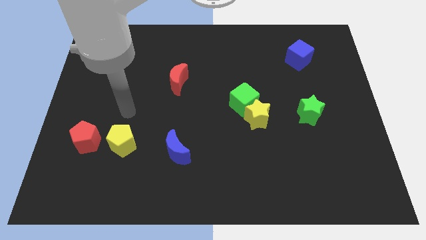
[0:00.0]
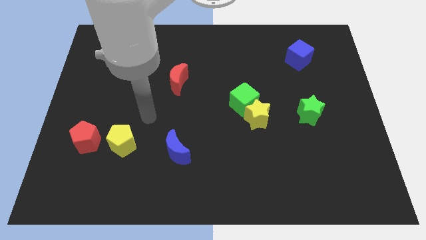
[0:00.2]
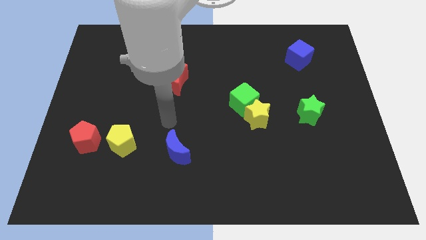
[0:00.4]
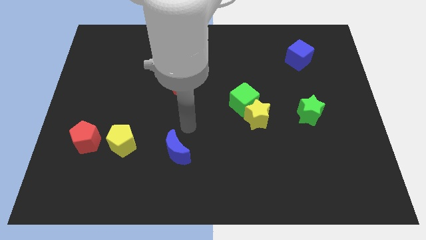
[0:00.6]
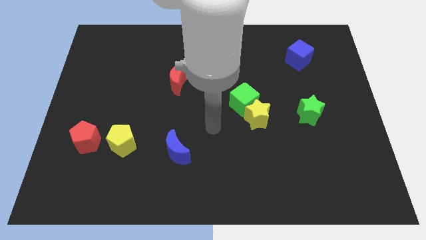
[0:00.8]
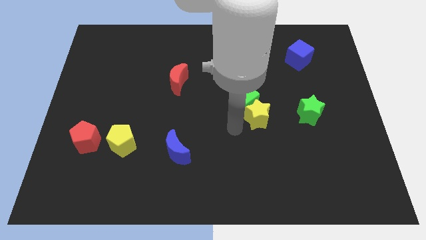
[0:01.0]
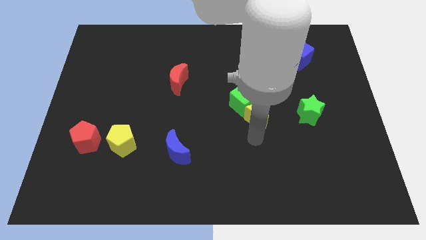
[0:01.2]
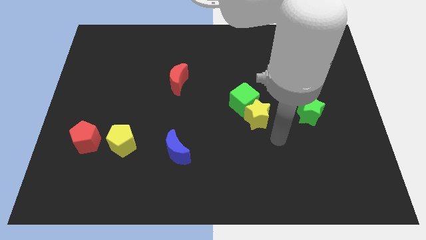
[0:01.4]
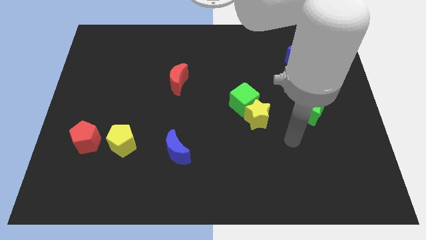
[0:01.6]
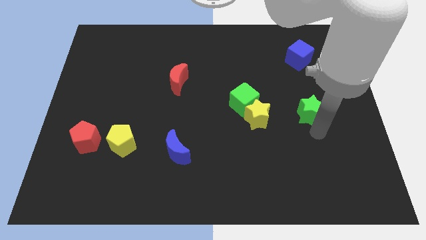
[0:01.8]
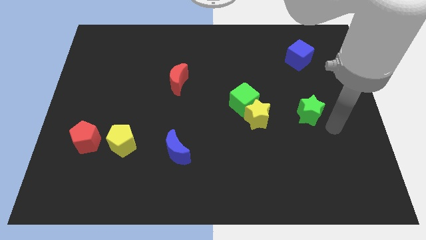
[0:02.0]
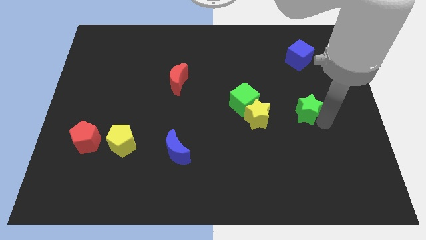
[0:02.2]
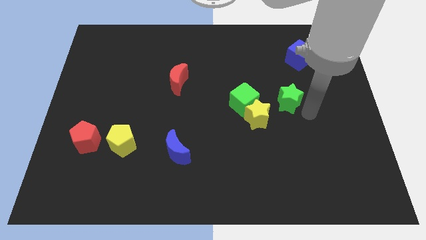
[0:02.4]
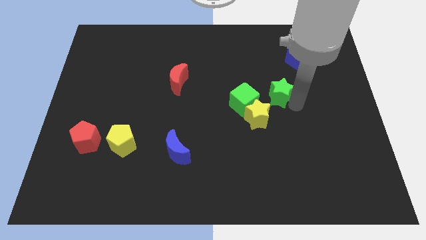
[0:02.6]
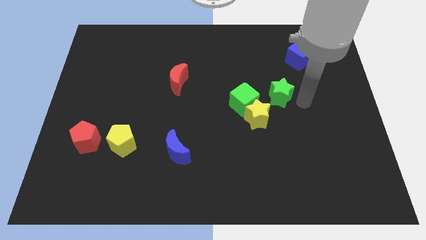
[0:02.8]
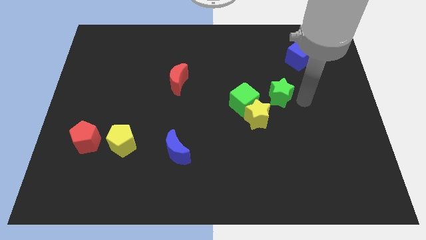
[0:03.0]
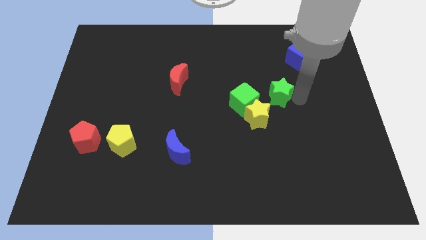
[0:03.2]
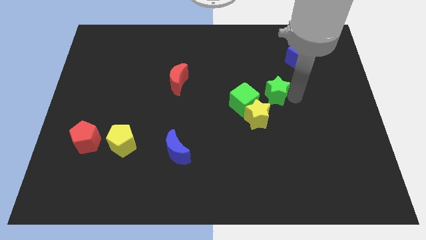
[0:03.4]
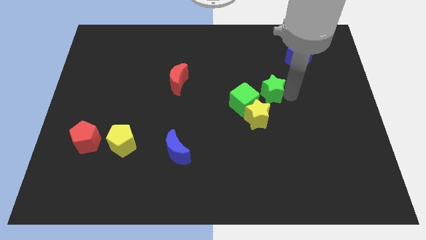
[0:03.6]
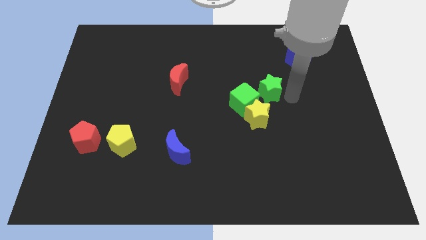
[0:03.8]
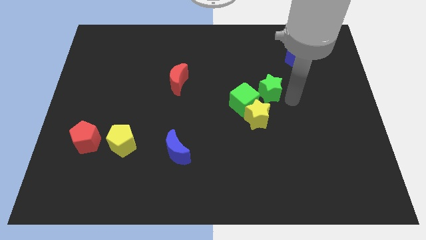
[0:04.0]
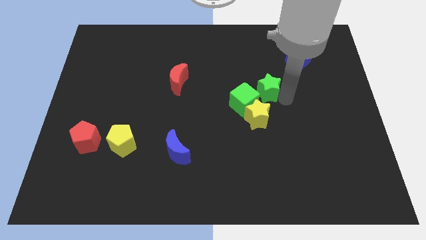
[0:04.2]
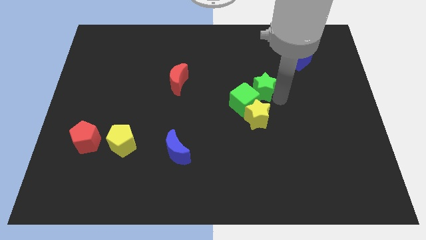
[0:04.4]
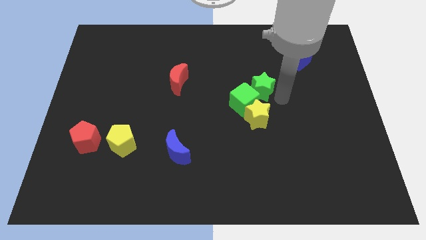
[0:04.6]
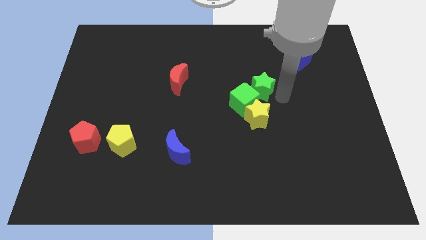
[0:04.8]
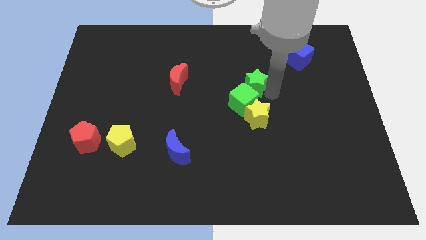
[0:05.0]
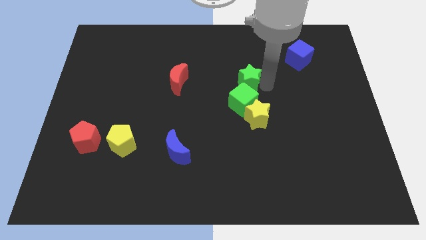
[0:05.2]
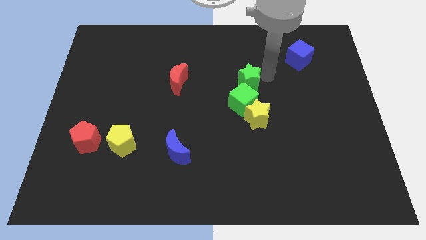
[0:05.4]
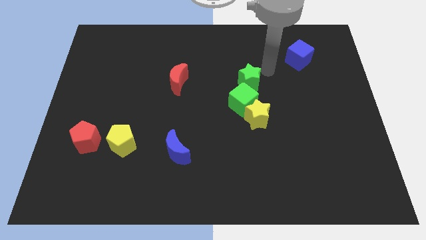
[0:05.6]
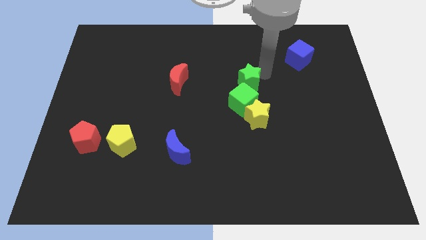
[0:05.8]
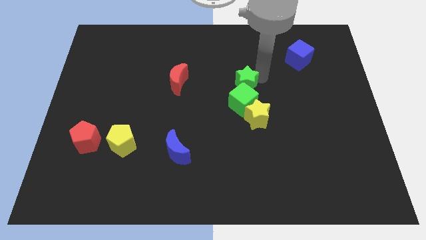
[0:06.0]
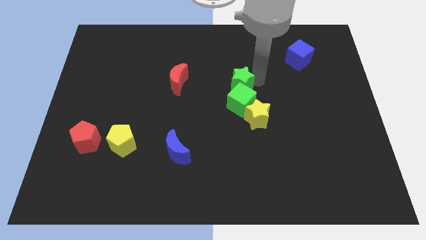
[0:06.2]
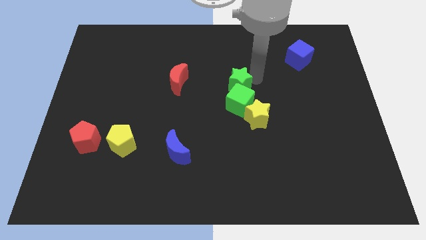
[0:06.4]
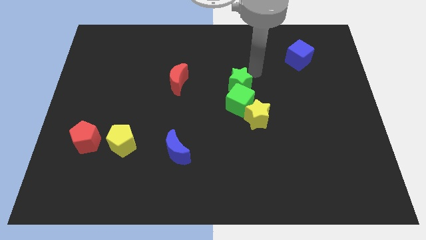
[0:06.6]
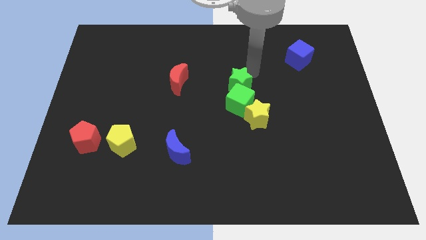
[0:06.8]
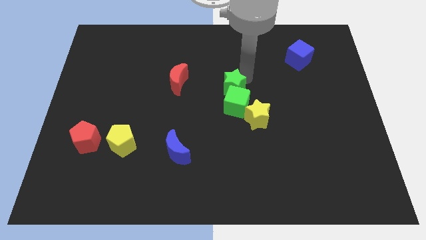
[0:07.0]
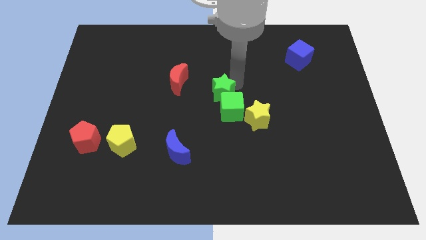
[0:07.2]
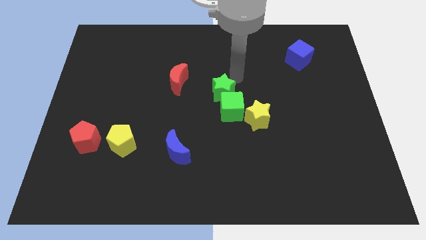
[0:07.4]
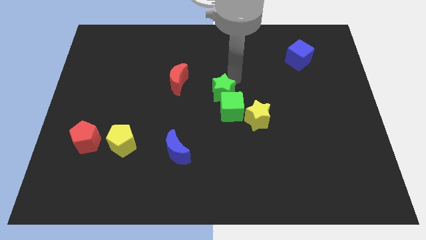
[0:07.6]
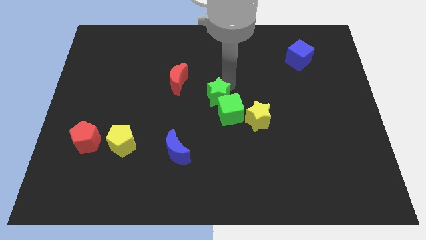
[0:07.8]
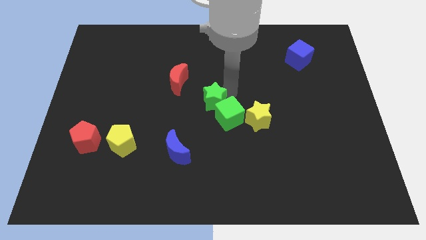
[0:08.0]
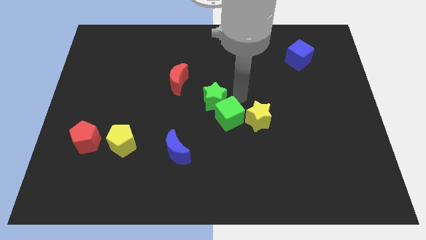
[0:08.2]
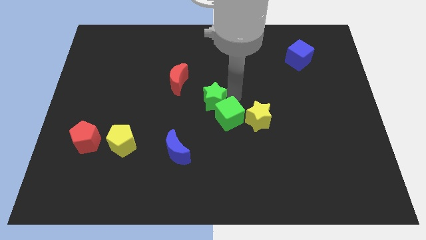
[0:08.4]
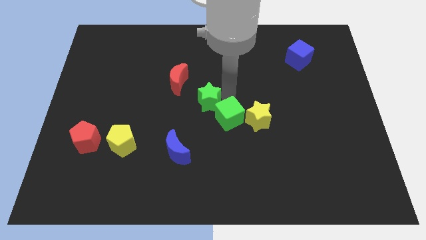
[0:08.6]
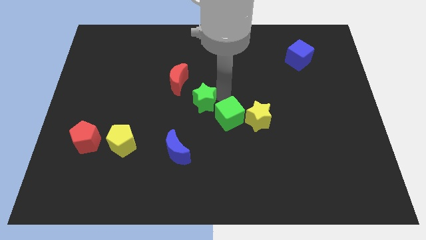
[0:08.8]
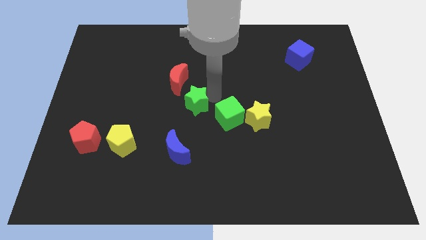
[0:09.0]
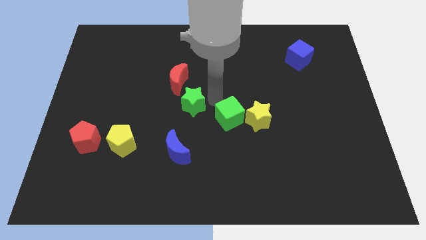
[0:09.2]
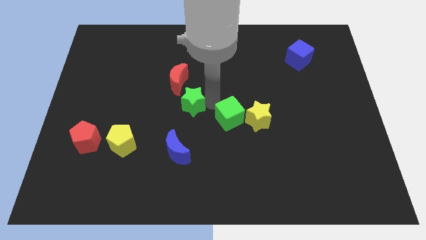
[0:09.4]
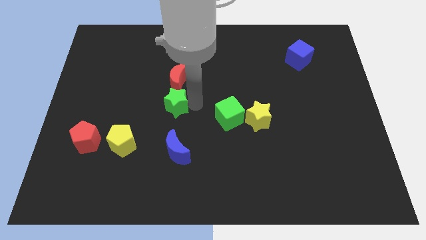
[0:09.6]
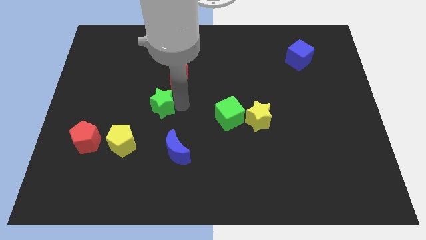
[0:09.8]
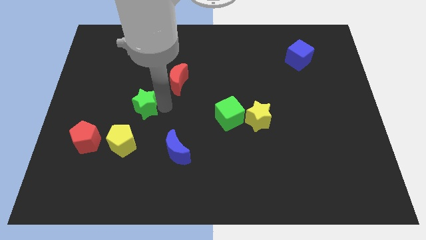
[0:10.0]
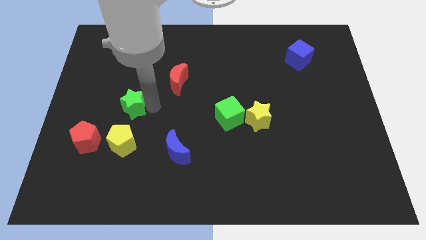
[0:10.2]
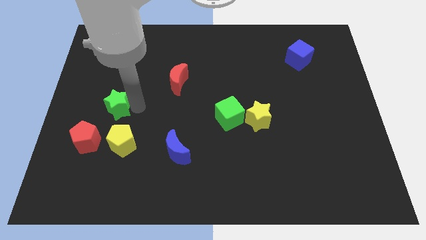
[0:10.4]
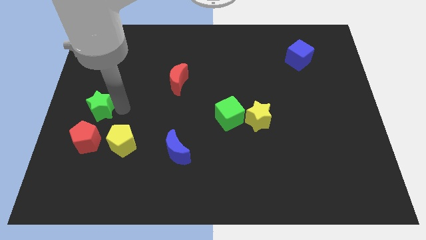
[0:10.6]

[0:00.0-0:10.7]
push the green star to the left side of the board
